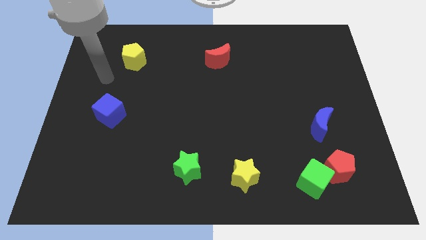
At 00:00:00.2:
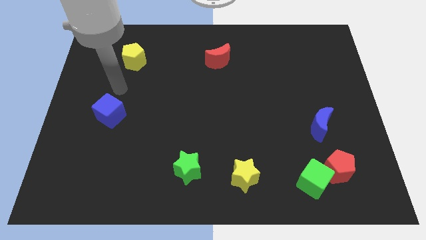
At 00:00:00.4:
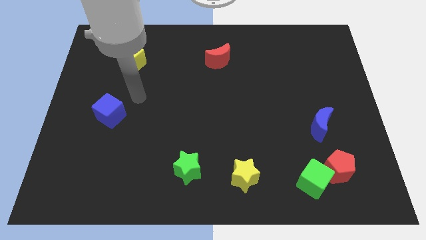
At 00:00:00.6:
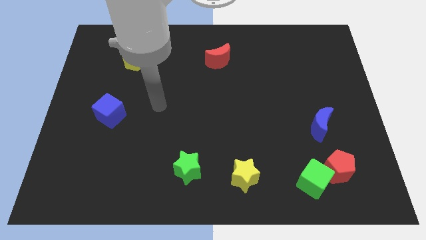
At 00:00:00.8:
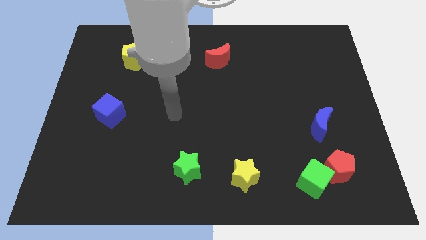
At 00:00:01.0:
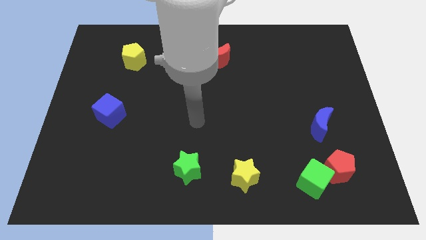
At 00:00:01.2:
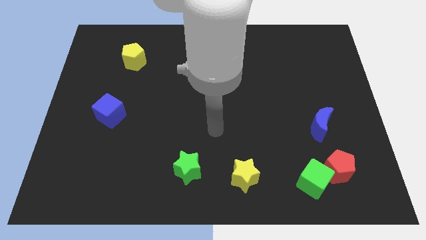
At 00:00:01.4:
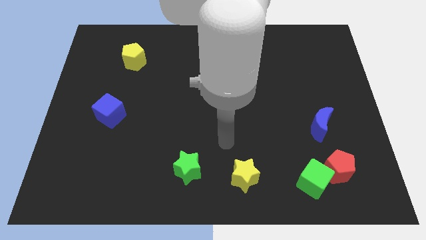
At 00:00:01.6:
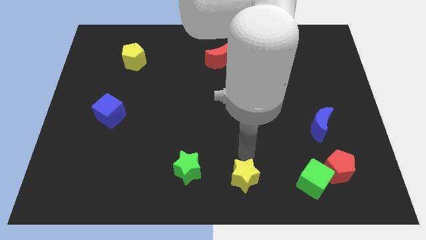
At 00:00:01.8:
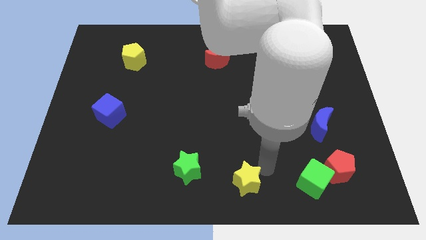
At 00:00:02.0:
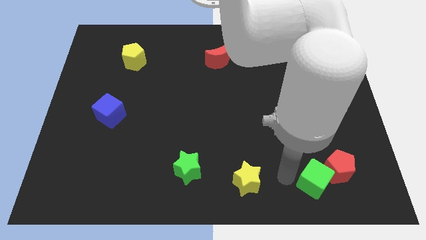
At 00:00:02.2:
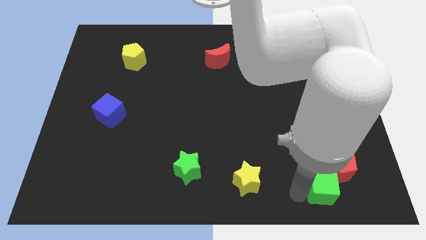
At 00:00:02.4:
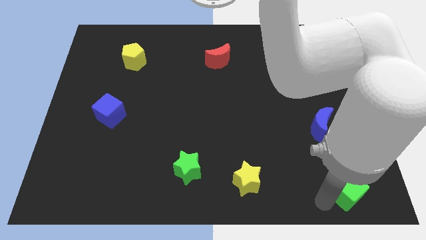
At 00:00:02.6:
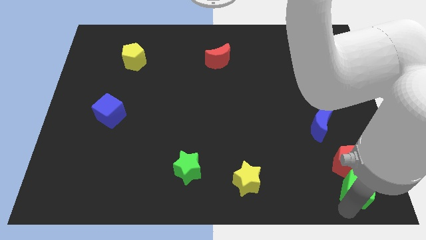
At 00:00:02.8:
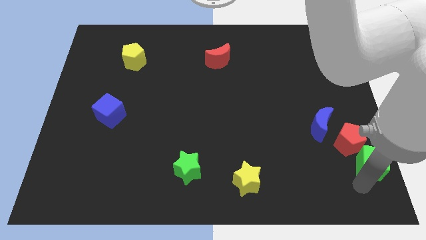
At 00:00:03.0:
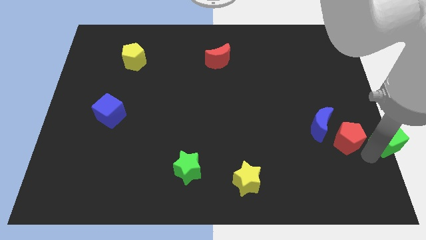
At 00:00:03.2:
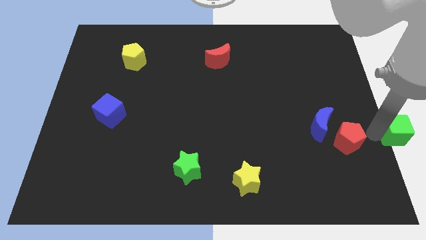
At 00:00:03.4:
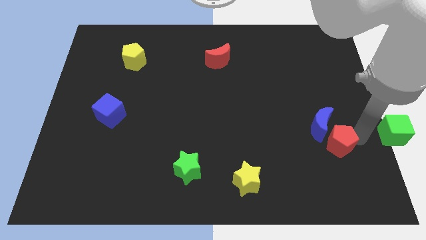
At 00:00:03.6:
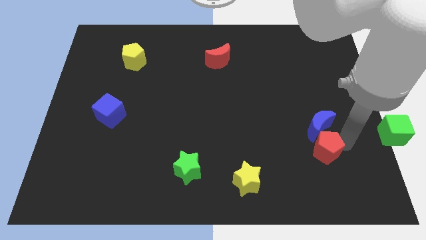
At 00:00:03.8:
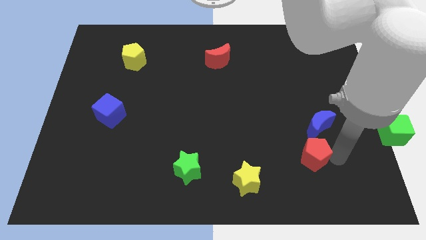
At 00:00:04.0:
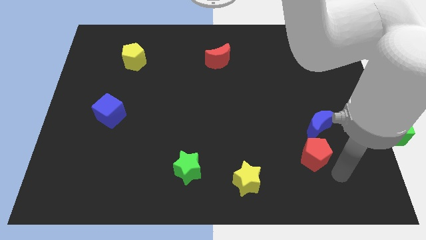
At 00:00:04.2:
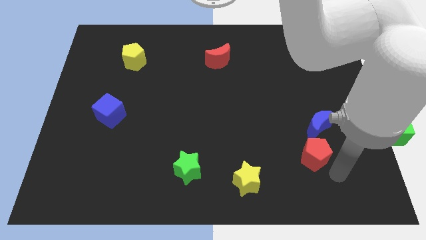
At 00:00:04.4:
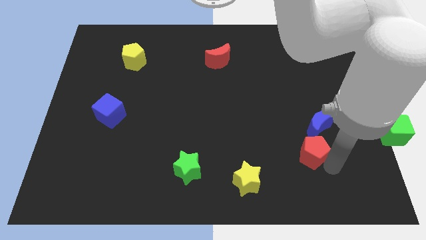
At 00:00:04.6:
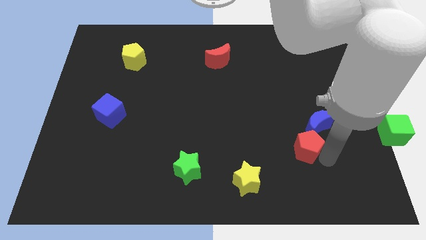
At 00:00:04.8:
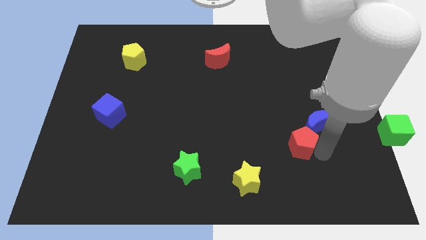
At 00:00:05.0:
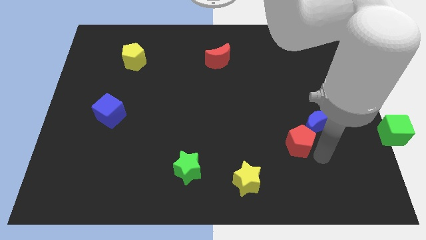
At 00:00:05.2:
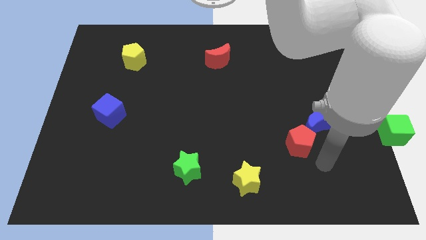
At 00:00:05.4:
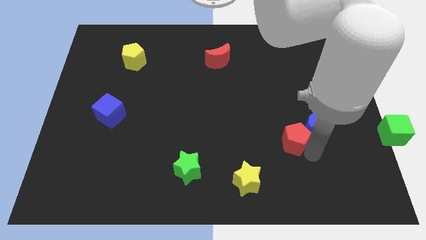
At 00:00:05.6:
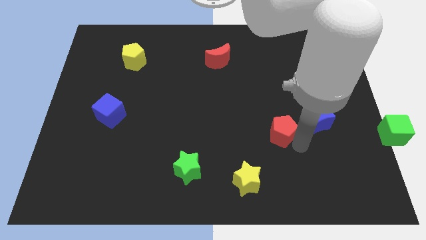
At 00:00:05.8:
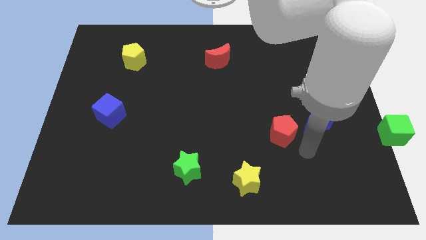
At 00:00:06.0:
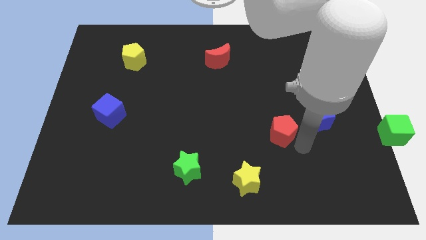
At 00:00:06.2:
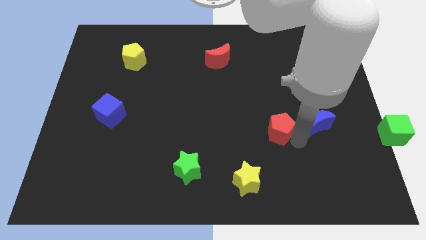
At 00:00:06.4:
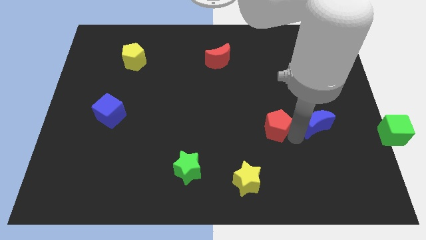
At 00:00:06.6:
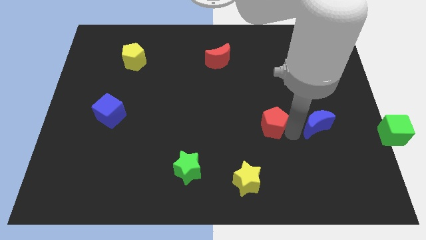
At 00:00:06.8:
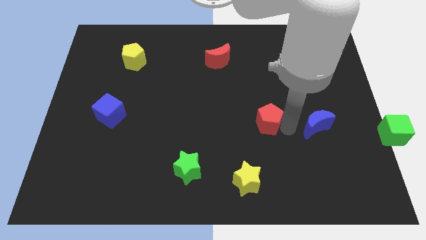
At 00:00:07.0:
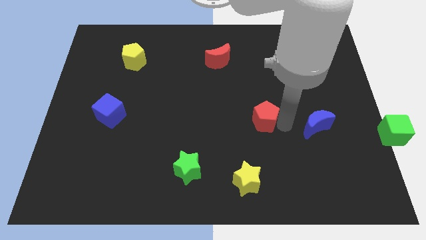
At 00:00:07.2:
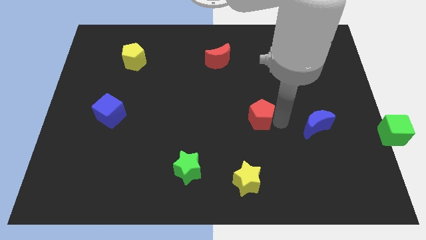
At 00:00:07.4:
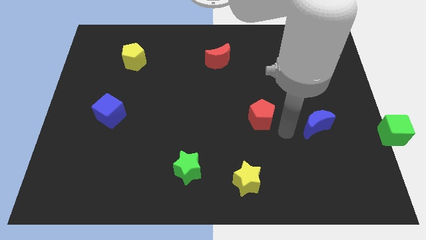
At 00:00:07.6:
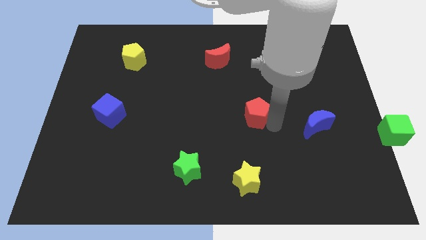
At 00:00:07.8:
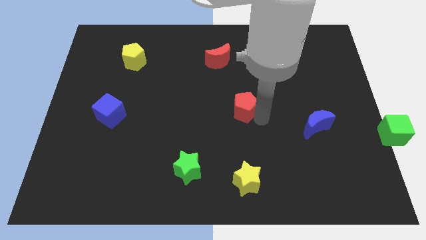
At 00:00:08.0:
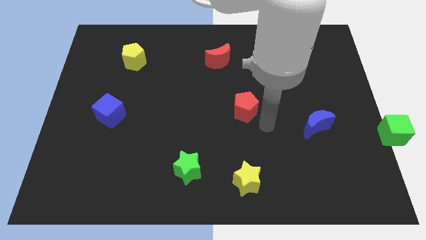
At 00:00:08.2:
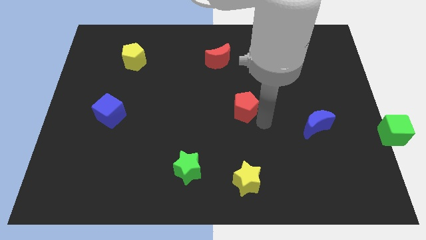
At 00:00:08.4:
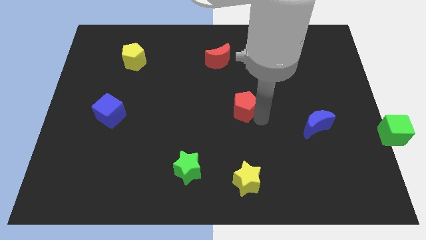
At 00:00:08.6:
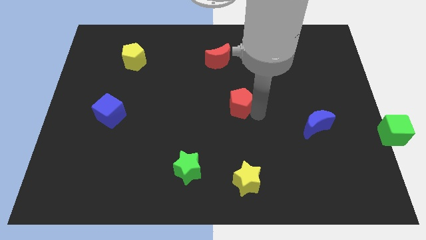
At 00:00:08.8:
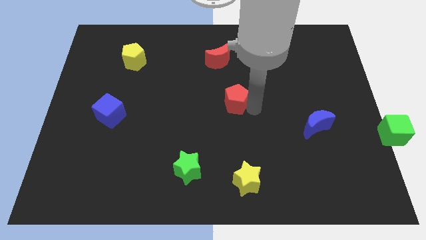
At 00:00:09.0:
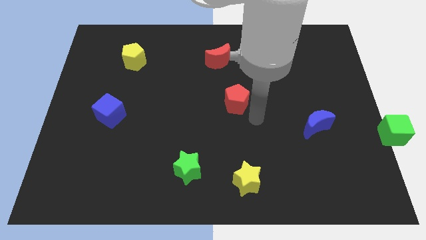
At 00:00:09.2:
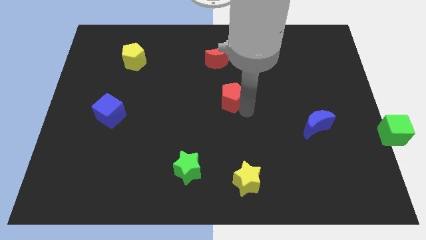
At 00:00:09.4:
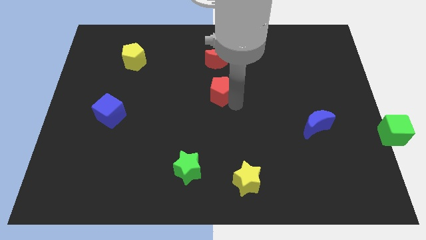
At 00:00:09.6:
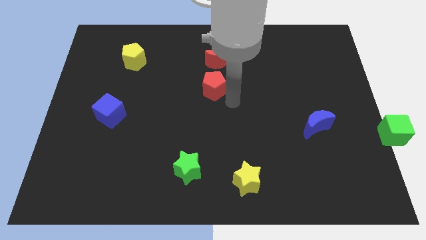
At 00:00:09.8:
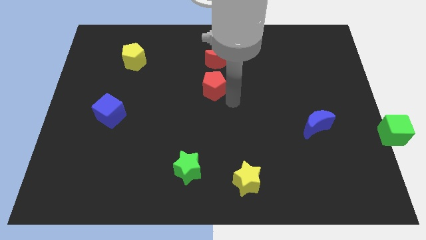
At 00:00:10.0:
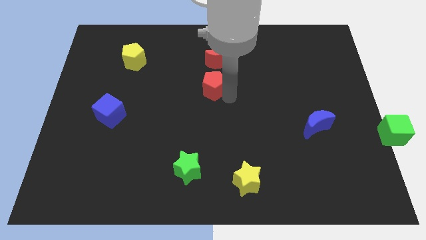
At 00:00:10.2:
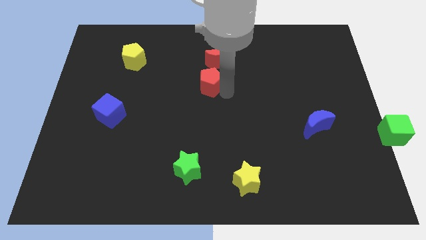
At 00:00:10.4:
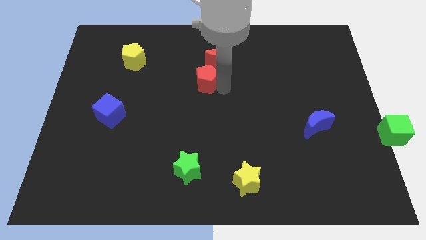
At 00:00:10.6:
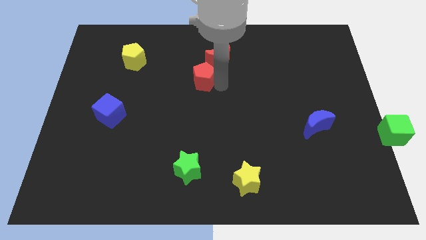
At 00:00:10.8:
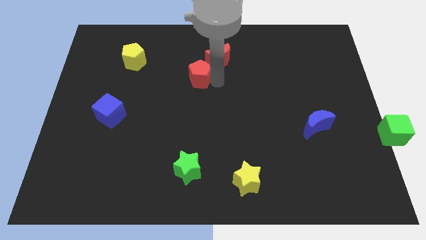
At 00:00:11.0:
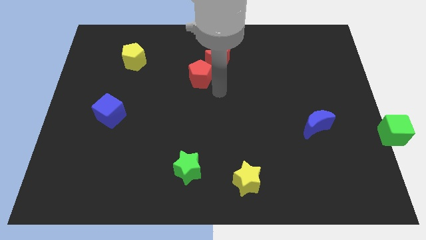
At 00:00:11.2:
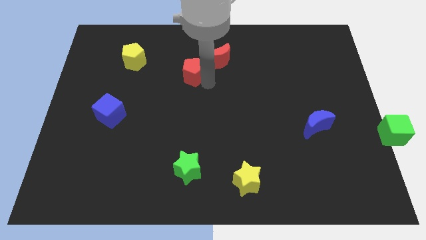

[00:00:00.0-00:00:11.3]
push the red pentagon left of the red moon

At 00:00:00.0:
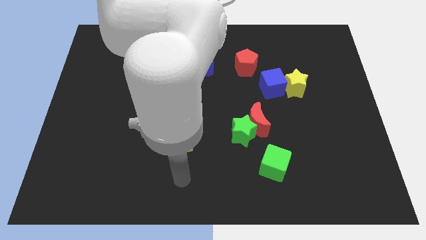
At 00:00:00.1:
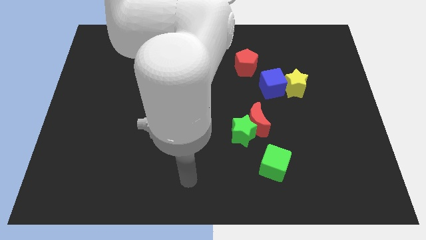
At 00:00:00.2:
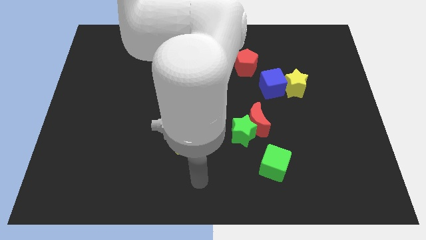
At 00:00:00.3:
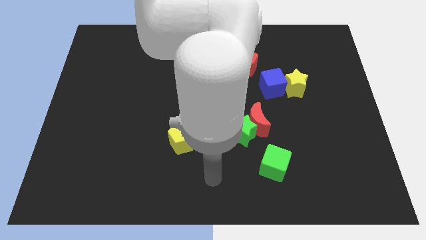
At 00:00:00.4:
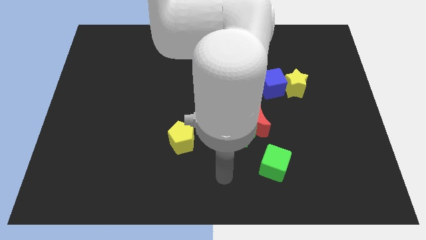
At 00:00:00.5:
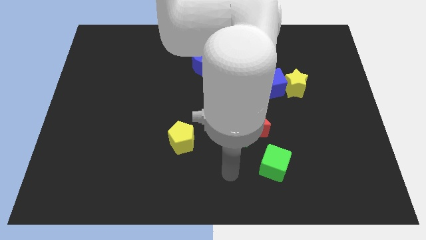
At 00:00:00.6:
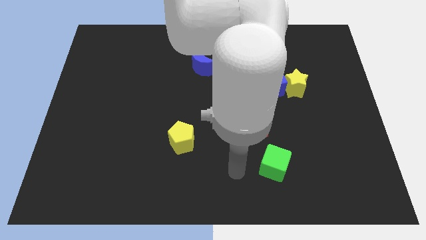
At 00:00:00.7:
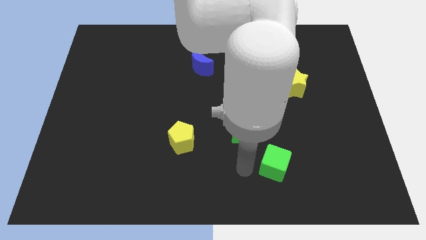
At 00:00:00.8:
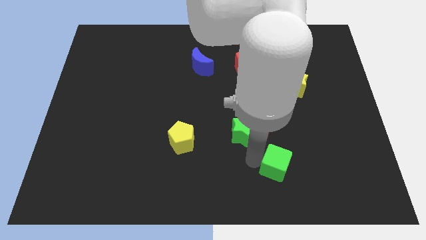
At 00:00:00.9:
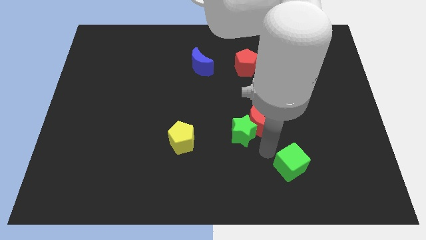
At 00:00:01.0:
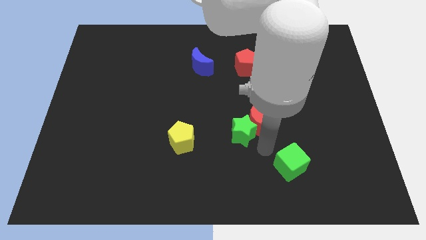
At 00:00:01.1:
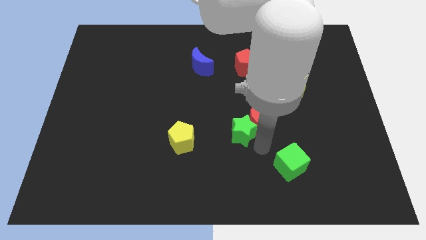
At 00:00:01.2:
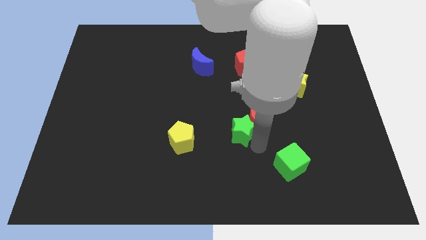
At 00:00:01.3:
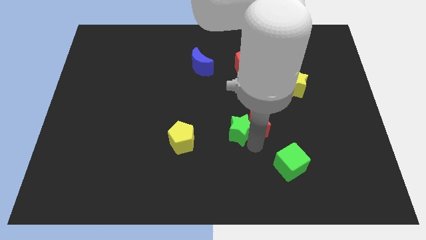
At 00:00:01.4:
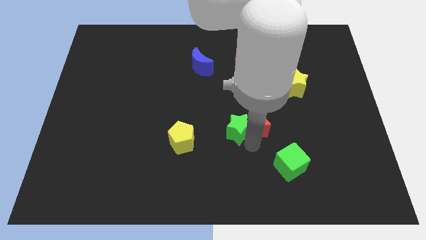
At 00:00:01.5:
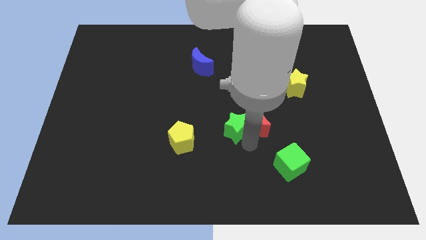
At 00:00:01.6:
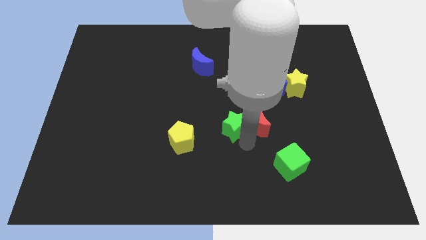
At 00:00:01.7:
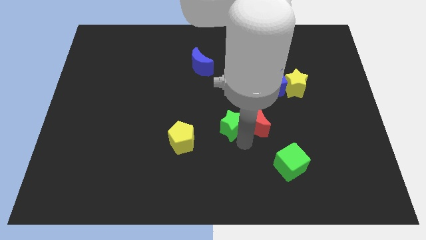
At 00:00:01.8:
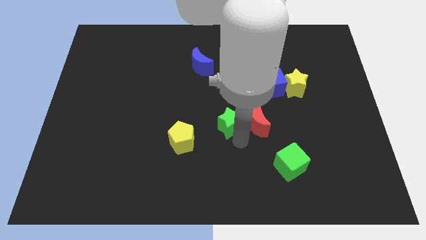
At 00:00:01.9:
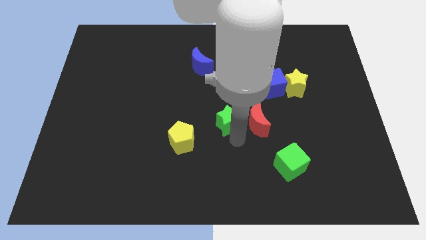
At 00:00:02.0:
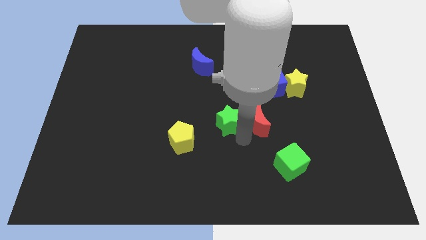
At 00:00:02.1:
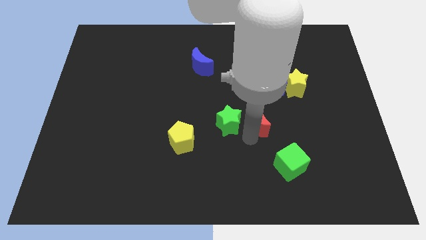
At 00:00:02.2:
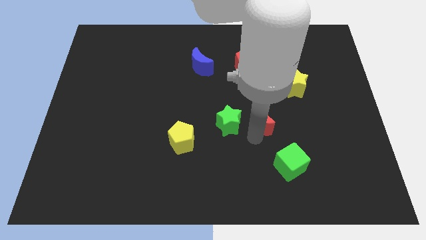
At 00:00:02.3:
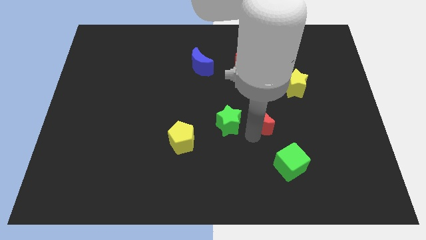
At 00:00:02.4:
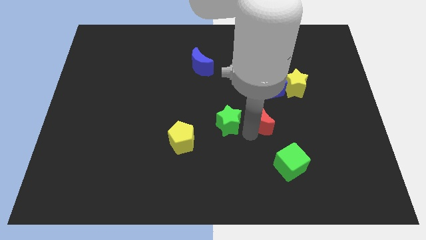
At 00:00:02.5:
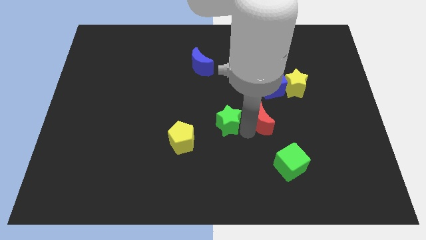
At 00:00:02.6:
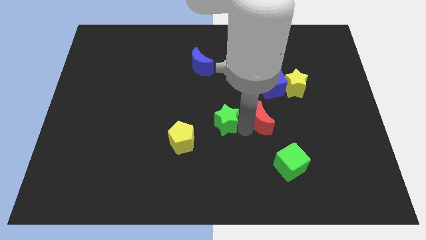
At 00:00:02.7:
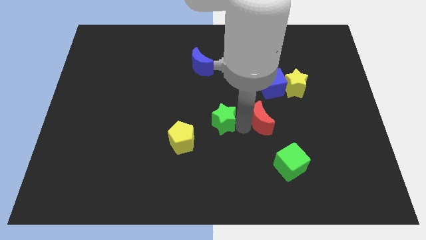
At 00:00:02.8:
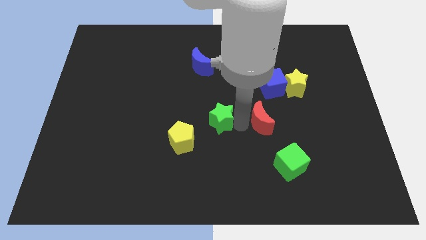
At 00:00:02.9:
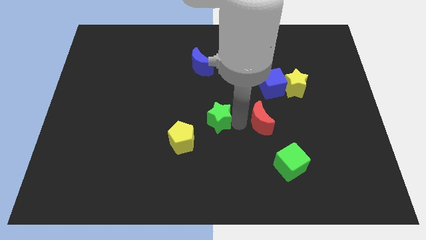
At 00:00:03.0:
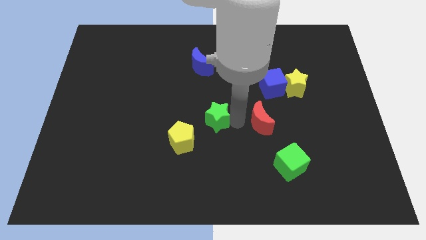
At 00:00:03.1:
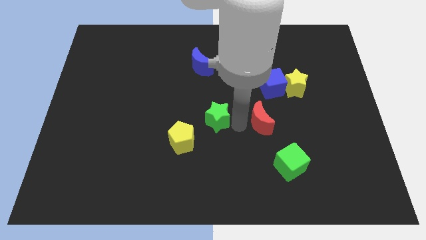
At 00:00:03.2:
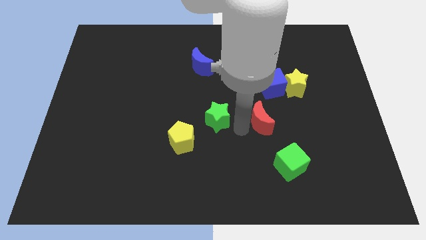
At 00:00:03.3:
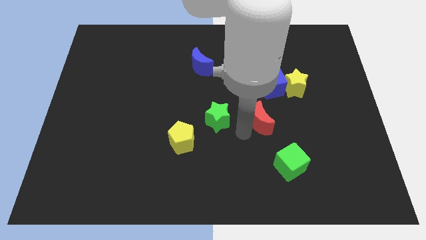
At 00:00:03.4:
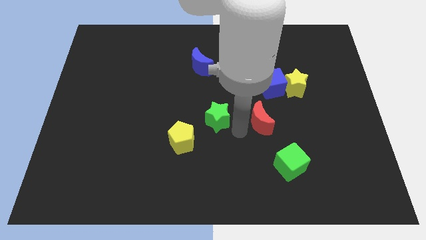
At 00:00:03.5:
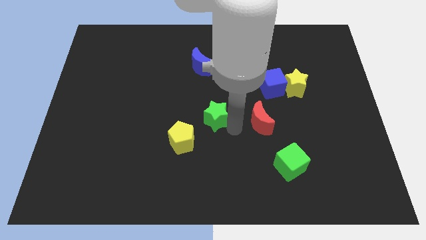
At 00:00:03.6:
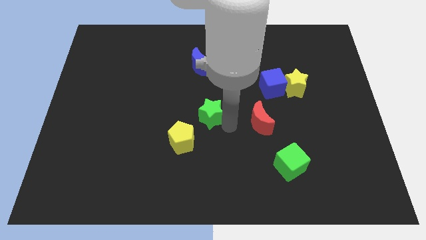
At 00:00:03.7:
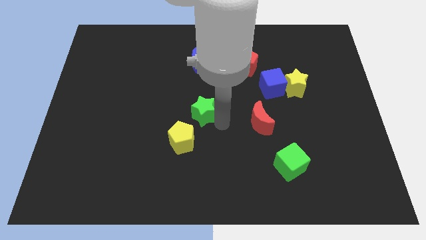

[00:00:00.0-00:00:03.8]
push the green star to the bottom of the blue moon
